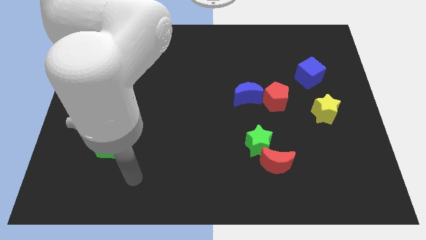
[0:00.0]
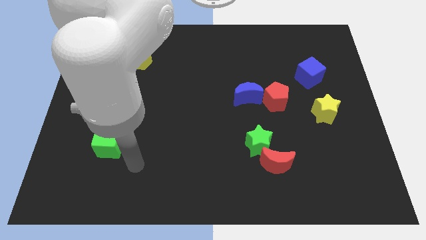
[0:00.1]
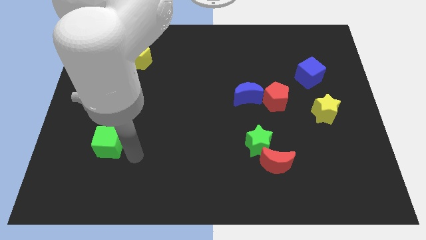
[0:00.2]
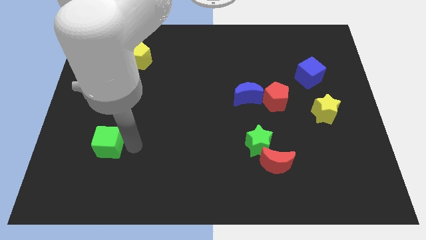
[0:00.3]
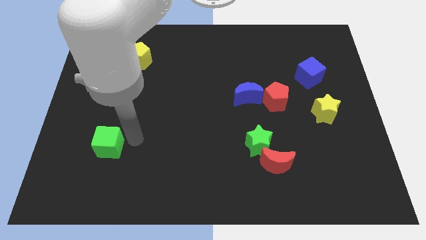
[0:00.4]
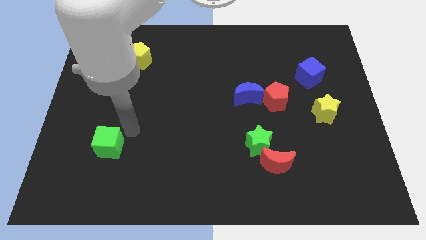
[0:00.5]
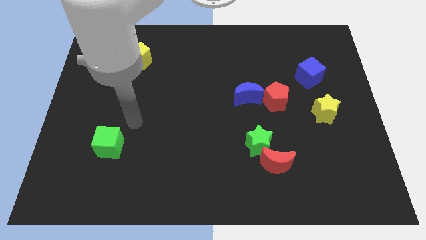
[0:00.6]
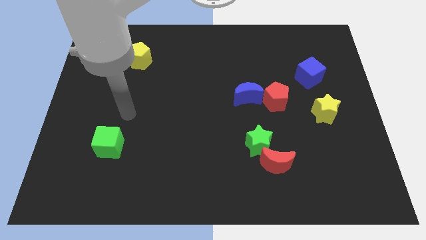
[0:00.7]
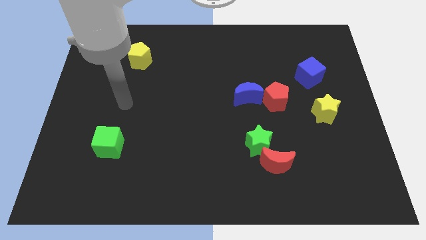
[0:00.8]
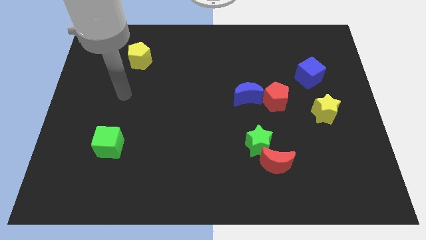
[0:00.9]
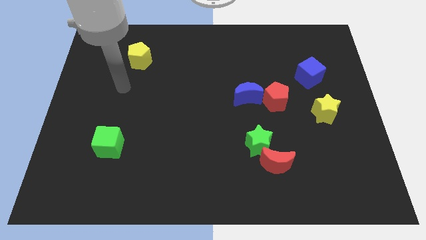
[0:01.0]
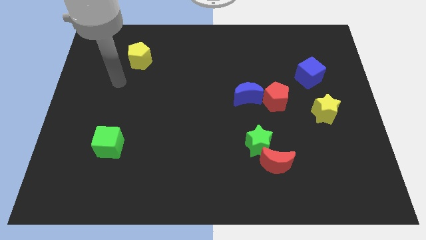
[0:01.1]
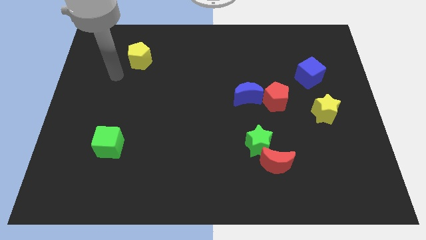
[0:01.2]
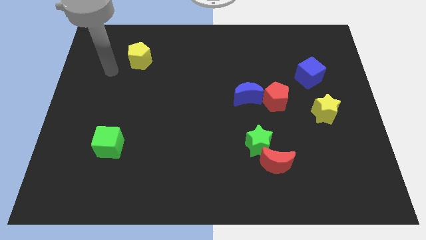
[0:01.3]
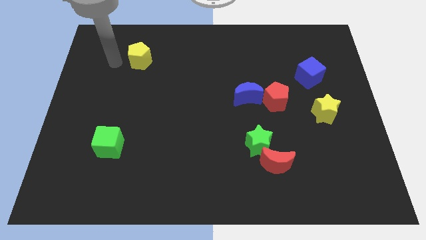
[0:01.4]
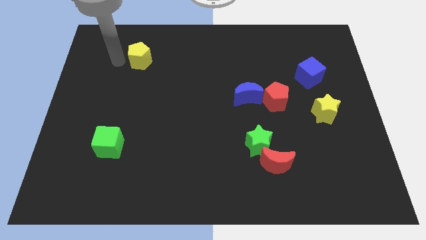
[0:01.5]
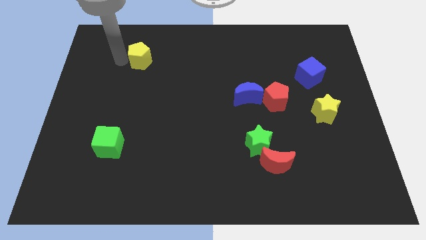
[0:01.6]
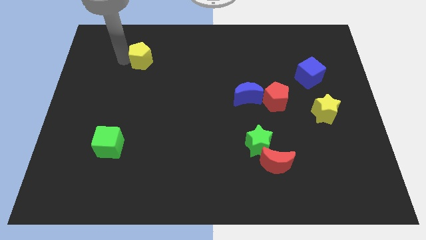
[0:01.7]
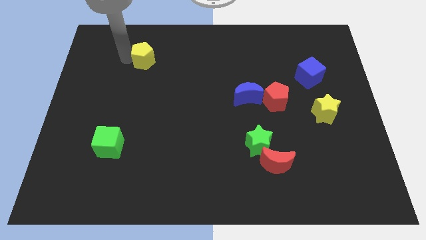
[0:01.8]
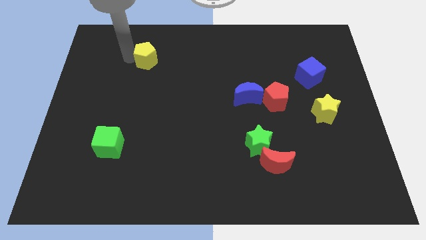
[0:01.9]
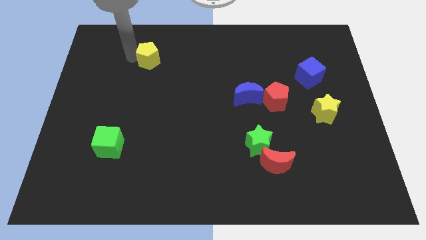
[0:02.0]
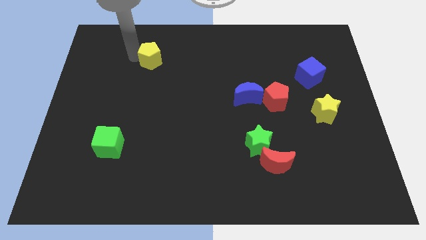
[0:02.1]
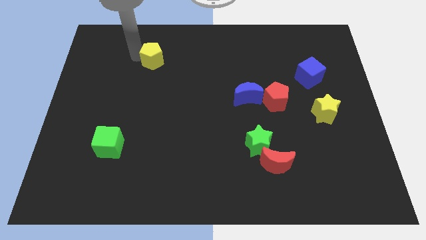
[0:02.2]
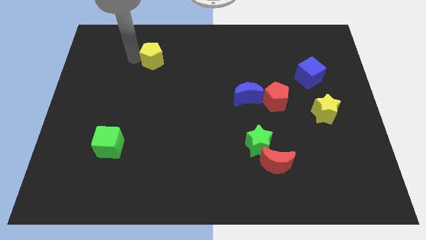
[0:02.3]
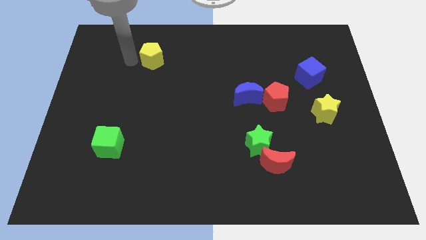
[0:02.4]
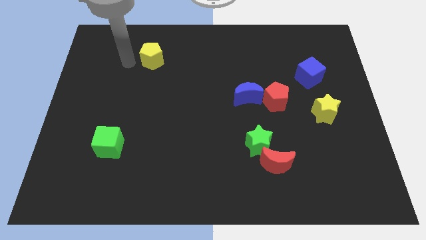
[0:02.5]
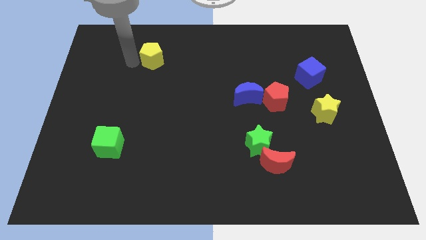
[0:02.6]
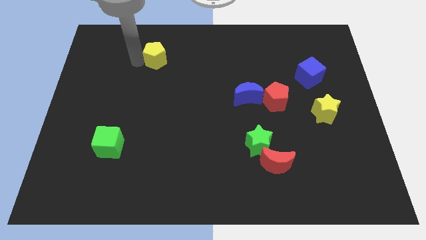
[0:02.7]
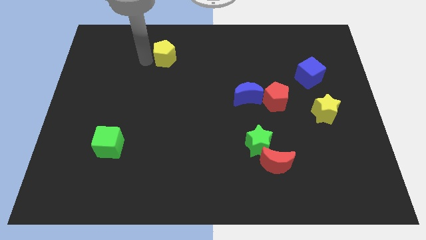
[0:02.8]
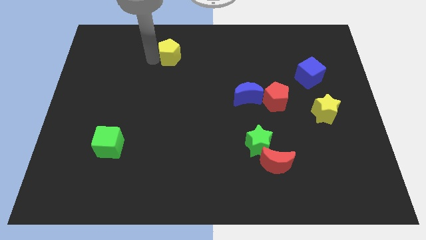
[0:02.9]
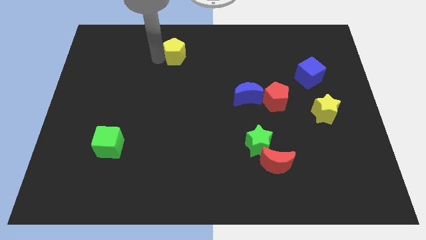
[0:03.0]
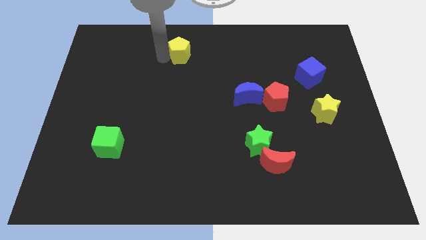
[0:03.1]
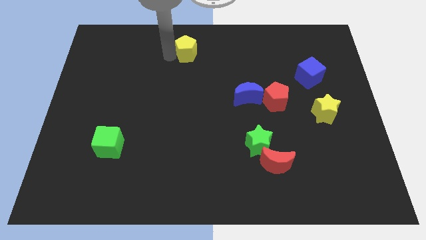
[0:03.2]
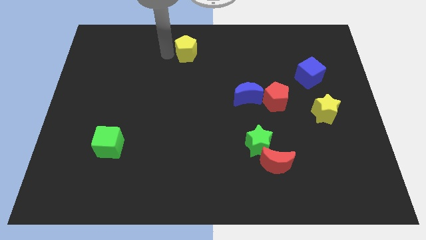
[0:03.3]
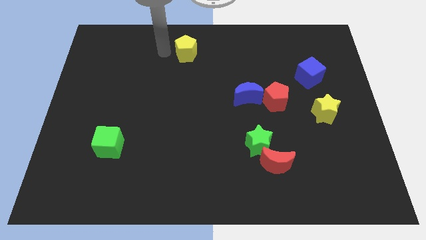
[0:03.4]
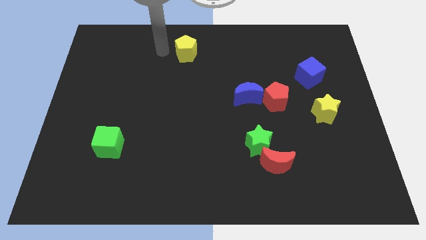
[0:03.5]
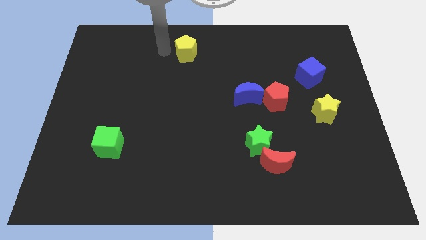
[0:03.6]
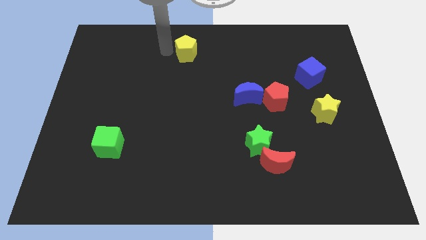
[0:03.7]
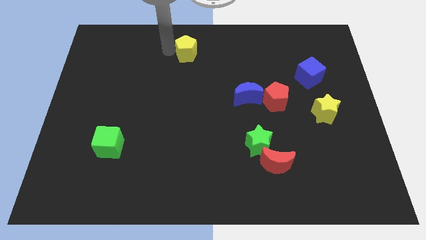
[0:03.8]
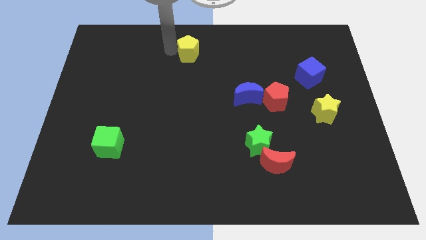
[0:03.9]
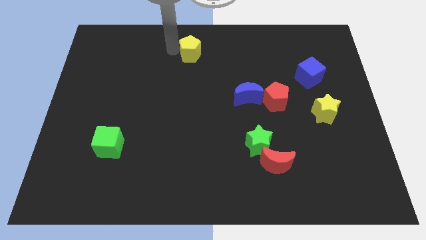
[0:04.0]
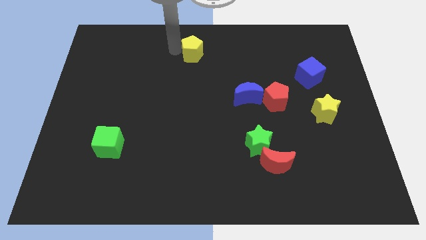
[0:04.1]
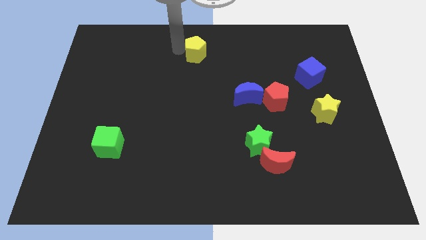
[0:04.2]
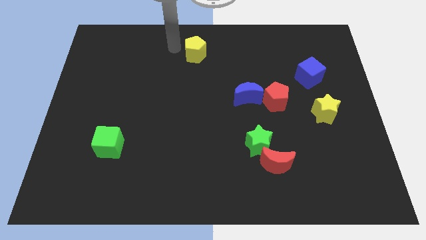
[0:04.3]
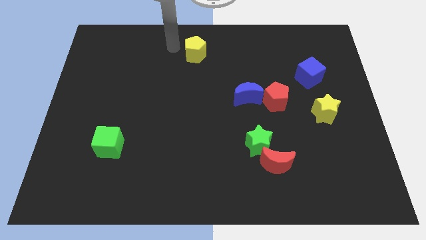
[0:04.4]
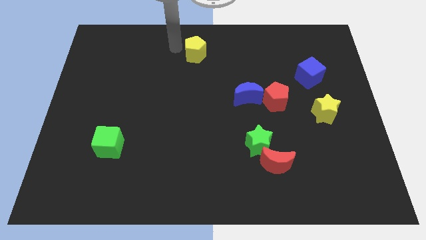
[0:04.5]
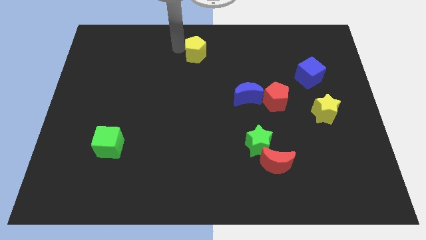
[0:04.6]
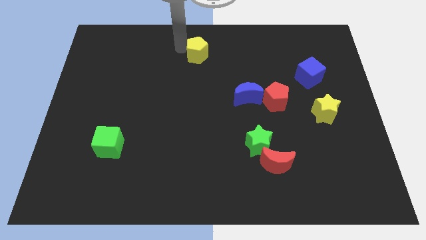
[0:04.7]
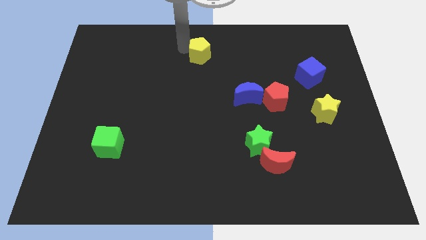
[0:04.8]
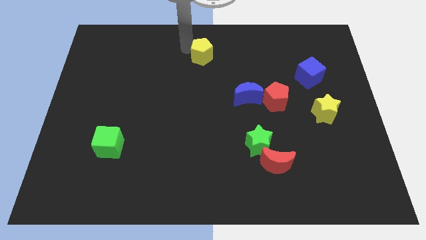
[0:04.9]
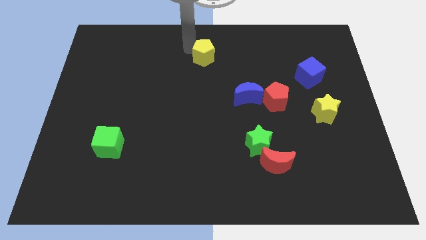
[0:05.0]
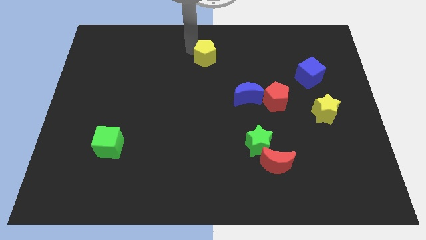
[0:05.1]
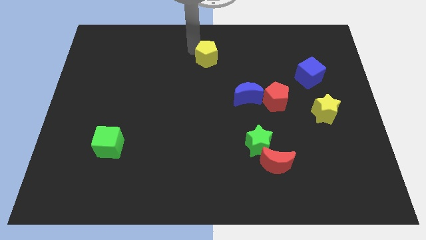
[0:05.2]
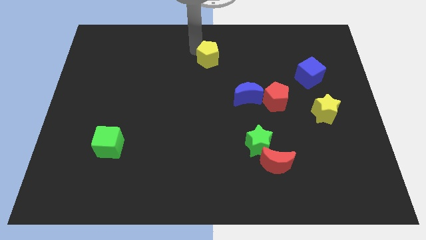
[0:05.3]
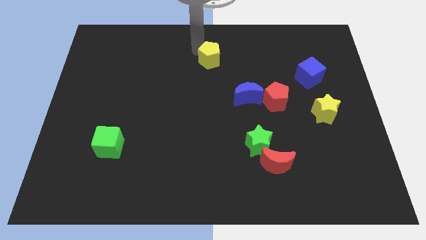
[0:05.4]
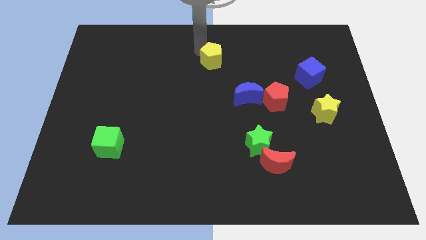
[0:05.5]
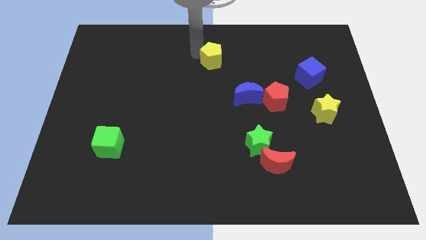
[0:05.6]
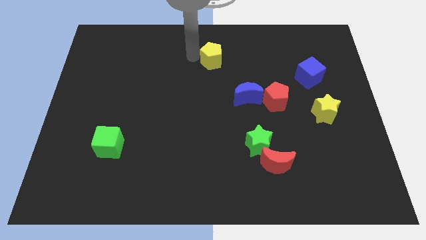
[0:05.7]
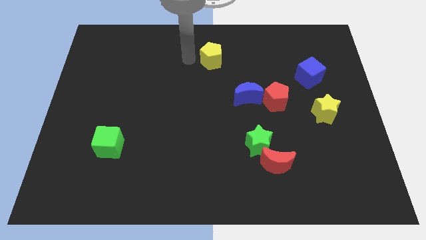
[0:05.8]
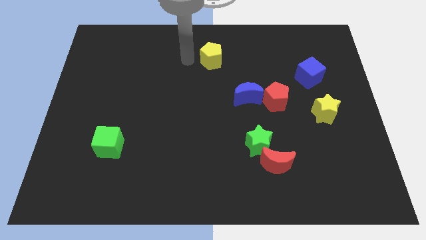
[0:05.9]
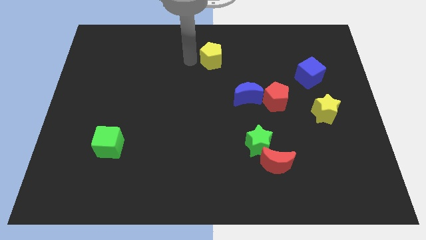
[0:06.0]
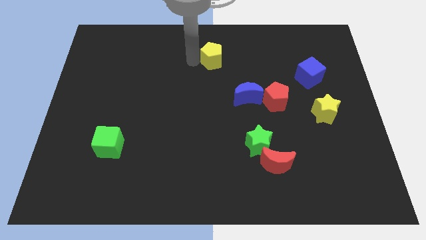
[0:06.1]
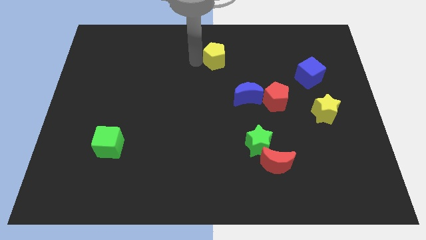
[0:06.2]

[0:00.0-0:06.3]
push the yellow pentagon to the right

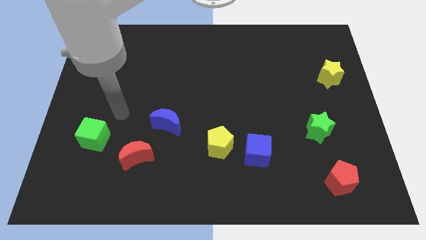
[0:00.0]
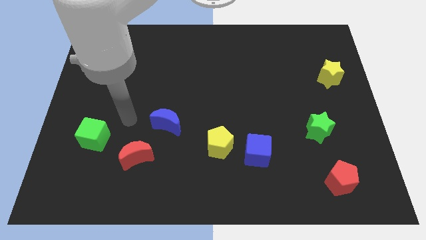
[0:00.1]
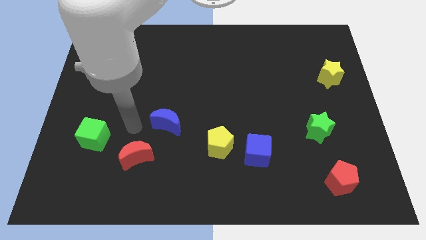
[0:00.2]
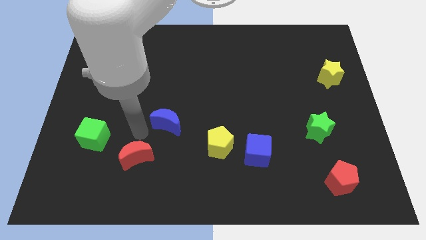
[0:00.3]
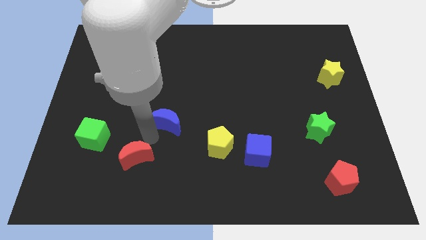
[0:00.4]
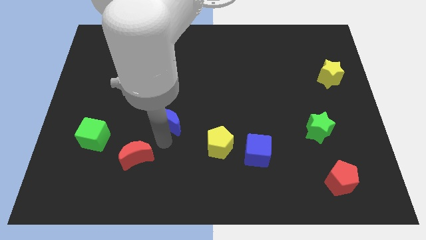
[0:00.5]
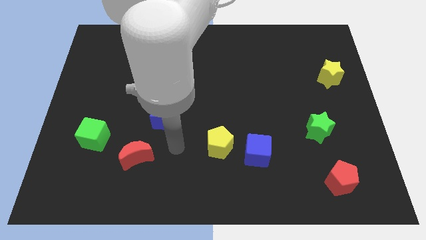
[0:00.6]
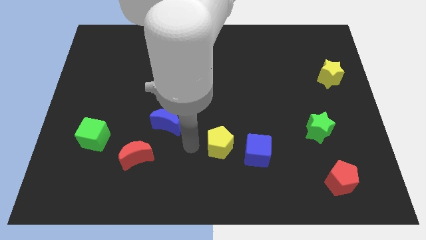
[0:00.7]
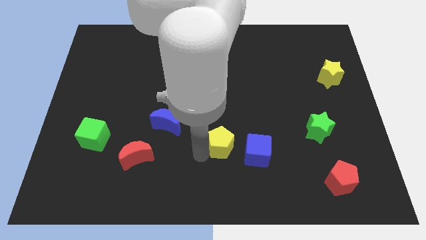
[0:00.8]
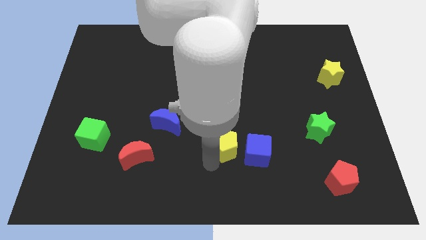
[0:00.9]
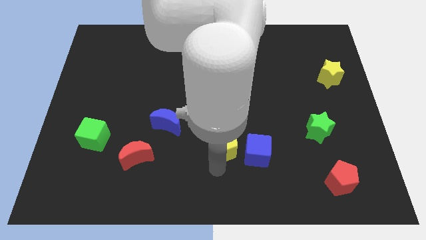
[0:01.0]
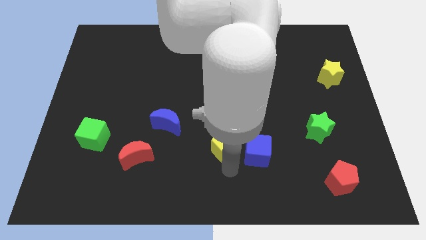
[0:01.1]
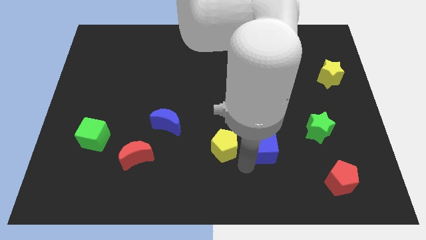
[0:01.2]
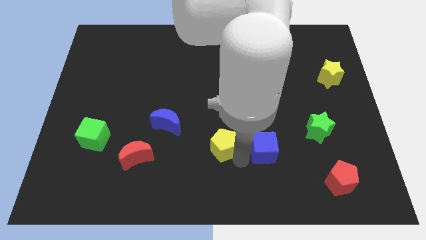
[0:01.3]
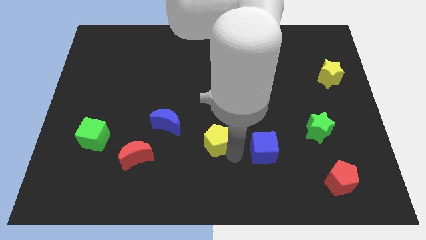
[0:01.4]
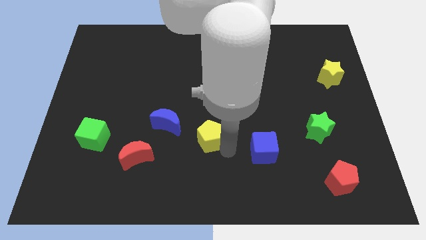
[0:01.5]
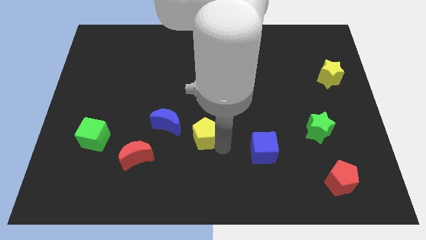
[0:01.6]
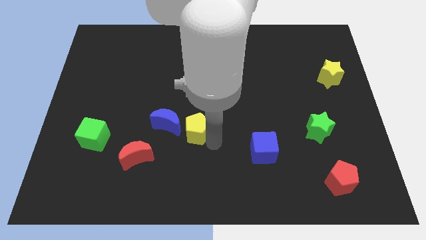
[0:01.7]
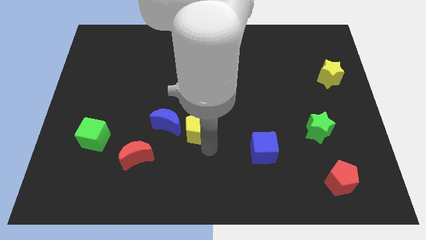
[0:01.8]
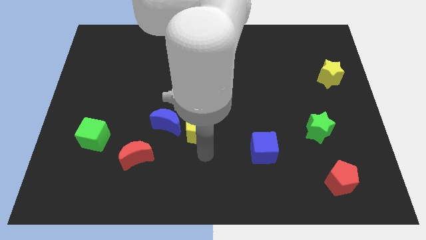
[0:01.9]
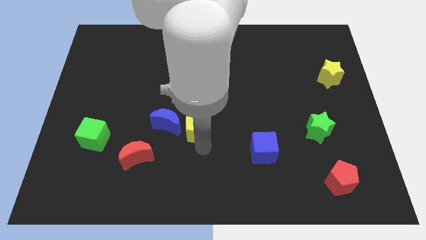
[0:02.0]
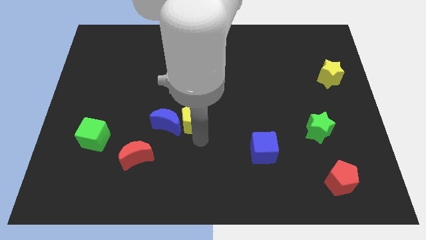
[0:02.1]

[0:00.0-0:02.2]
move the yellow pentagon a little bit up and then to the left
